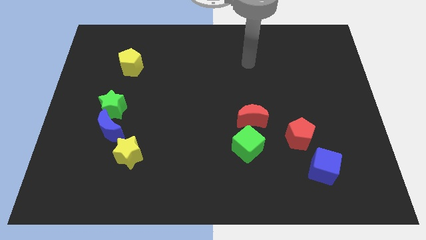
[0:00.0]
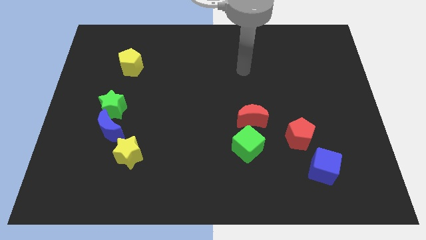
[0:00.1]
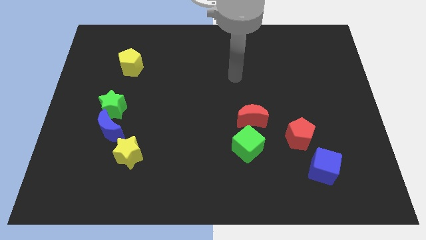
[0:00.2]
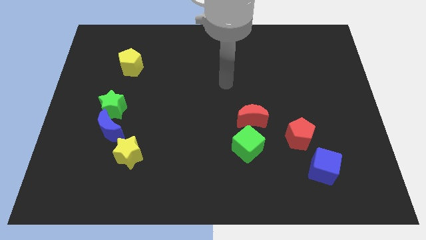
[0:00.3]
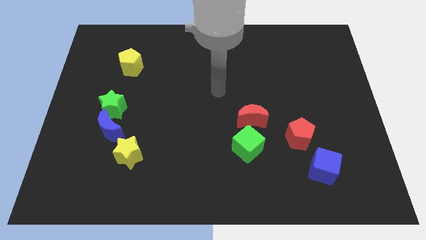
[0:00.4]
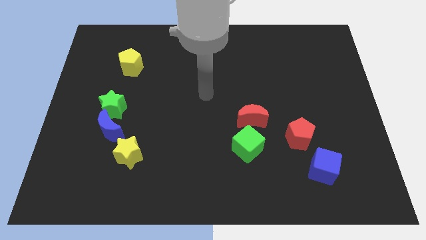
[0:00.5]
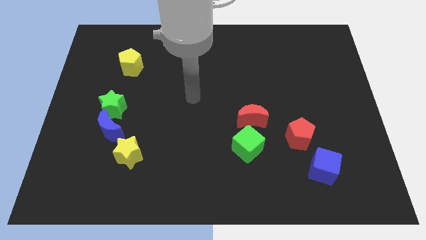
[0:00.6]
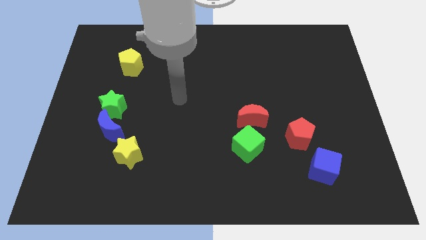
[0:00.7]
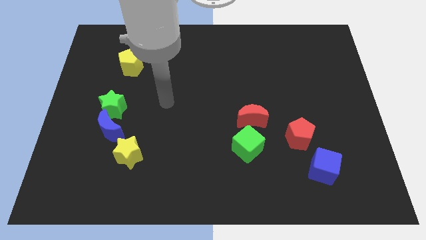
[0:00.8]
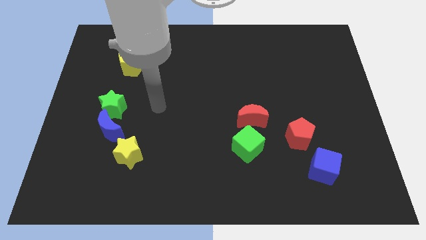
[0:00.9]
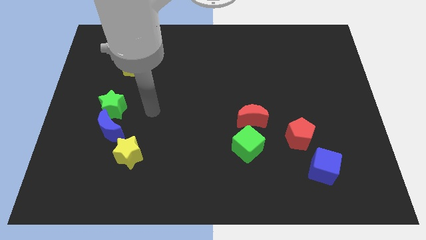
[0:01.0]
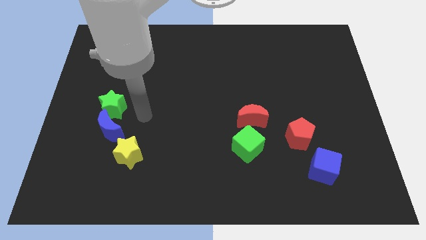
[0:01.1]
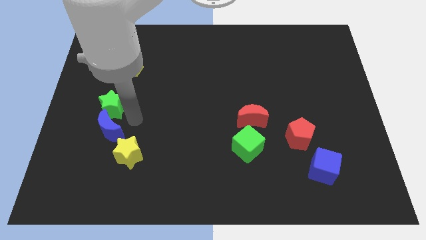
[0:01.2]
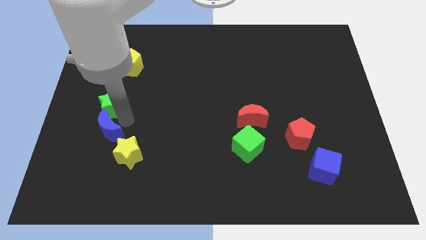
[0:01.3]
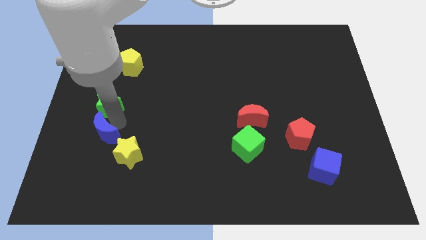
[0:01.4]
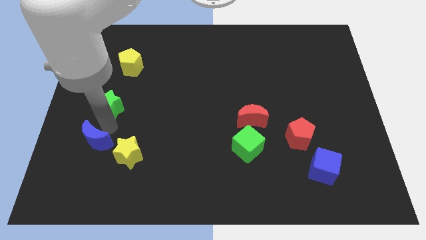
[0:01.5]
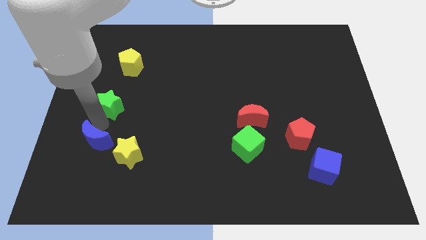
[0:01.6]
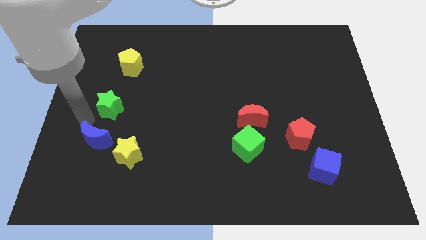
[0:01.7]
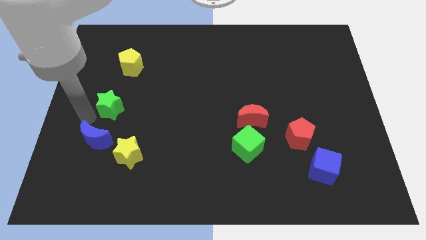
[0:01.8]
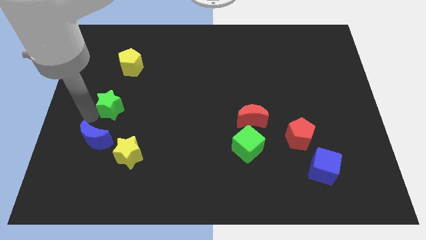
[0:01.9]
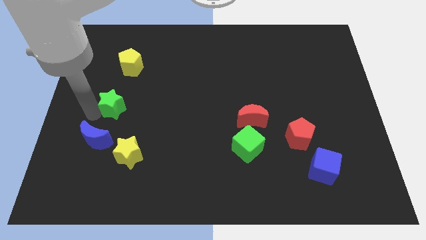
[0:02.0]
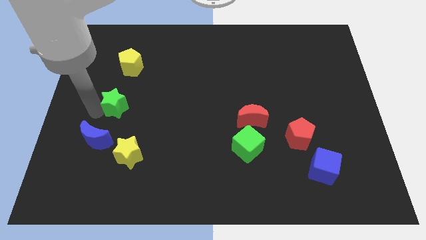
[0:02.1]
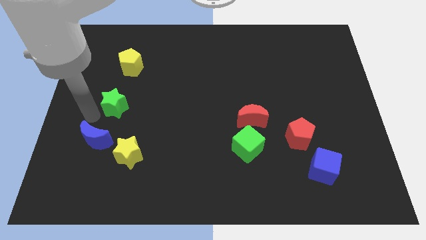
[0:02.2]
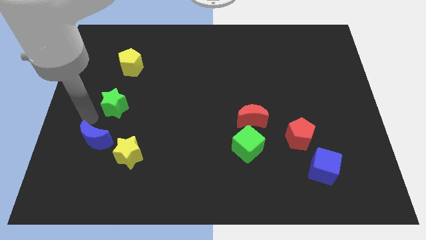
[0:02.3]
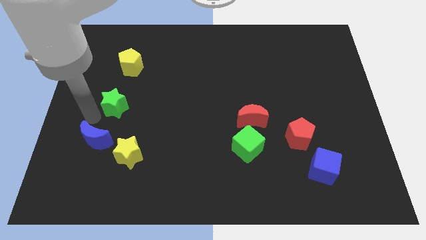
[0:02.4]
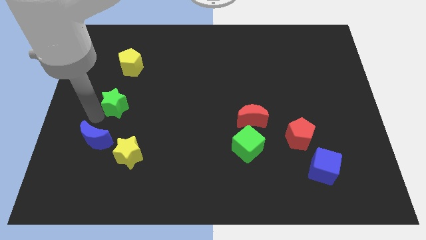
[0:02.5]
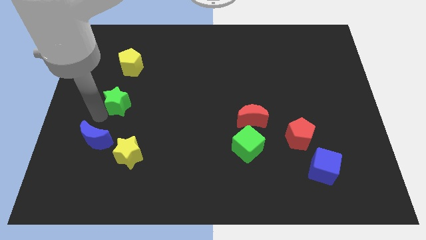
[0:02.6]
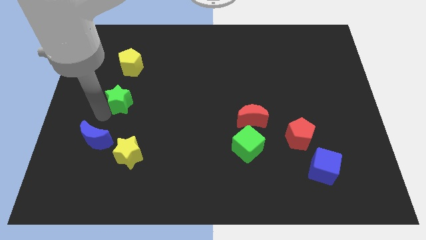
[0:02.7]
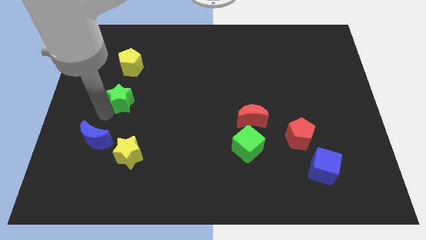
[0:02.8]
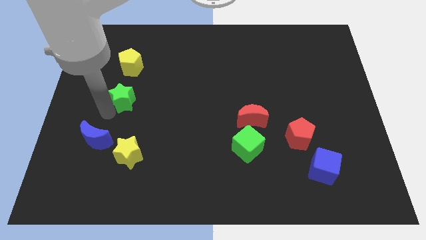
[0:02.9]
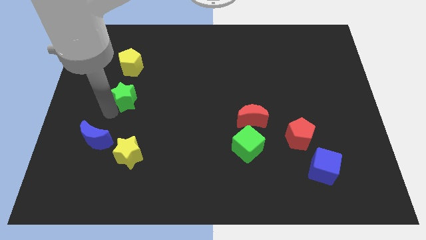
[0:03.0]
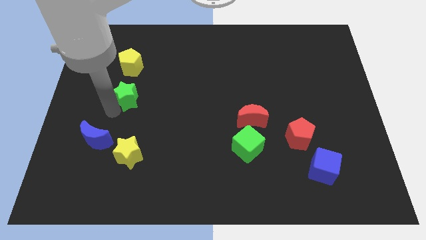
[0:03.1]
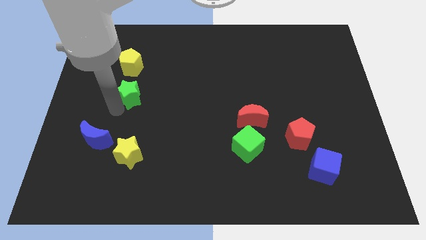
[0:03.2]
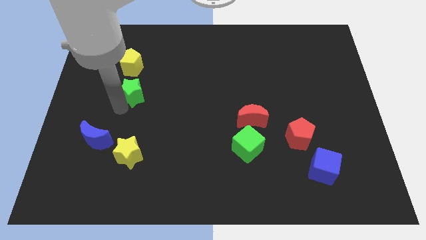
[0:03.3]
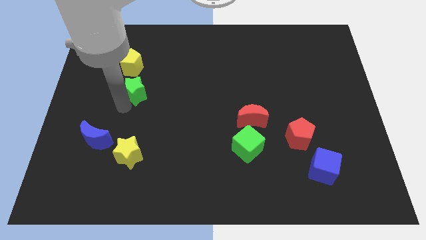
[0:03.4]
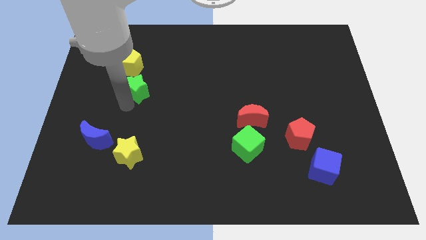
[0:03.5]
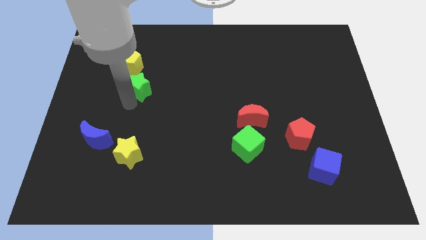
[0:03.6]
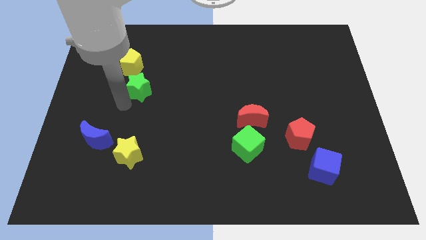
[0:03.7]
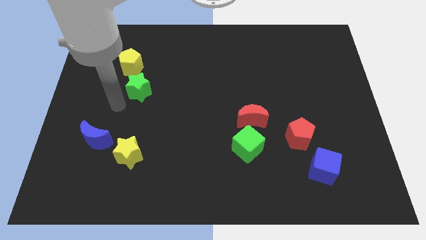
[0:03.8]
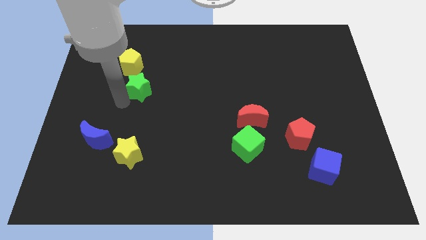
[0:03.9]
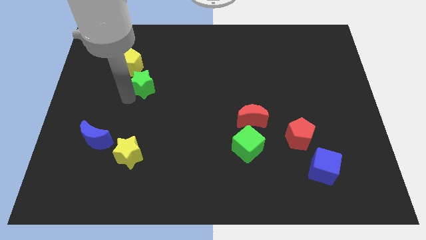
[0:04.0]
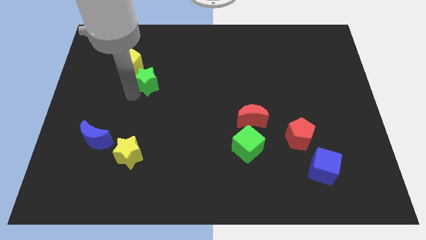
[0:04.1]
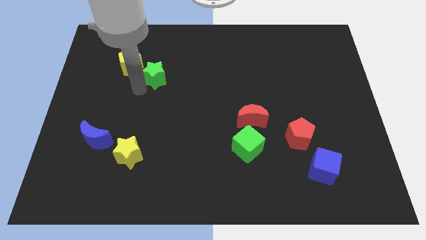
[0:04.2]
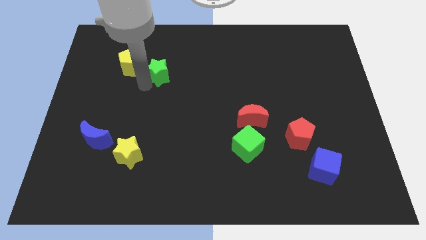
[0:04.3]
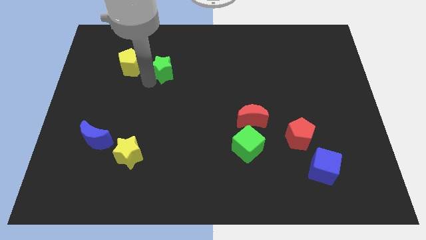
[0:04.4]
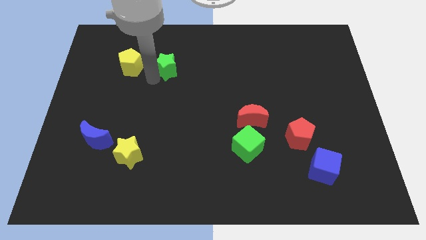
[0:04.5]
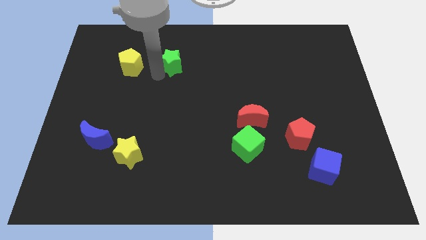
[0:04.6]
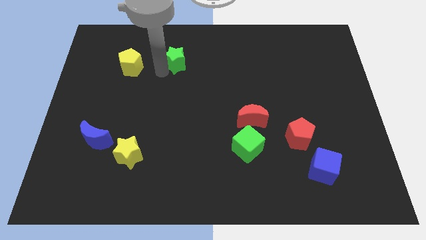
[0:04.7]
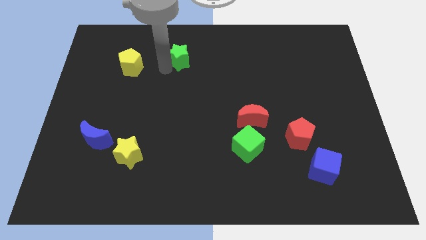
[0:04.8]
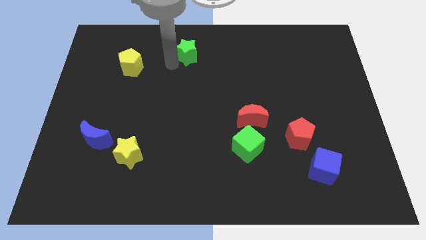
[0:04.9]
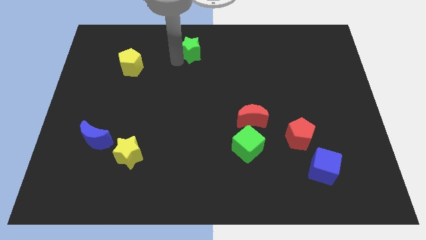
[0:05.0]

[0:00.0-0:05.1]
move the green star to the towards your base

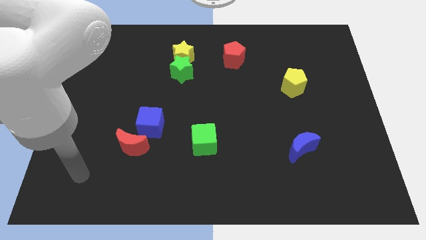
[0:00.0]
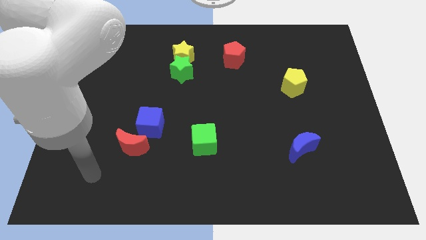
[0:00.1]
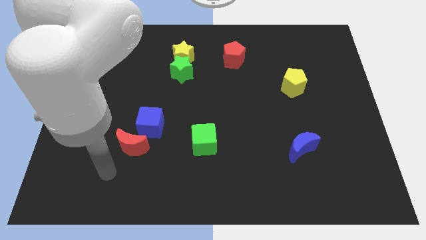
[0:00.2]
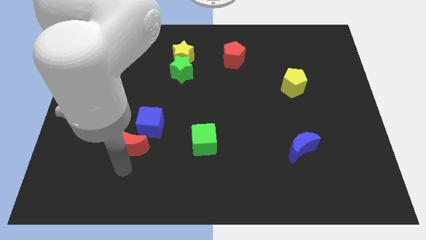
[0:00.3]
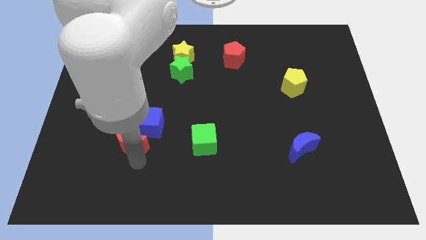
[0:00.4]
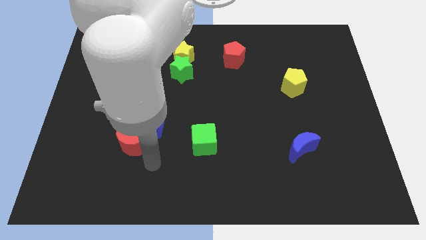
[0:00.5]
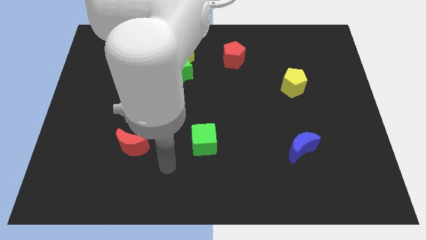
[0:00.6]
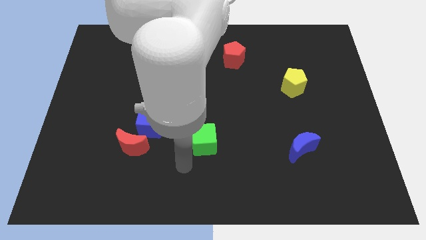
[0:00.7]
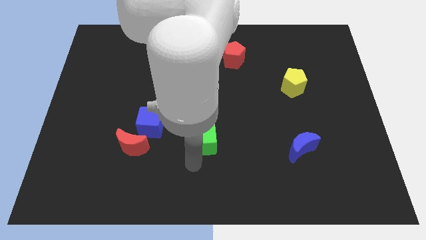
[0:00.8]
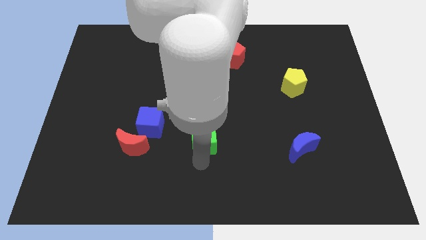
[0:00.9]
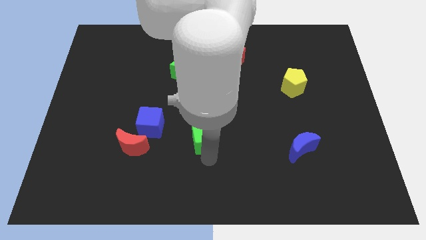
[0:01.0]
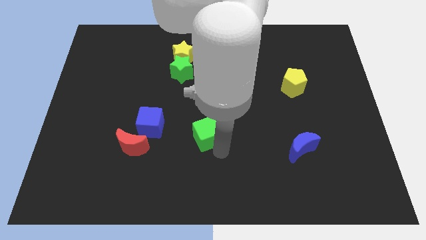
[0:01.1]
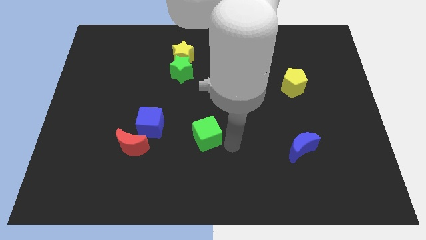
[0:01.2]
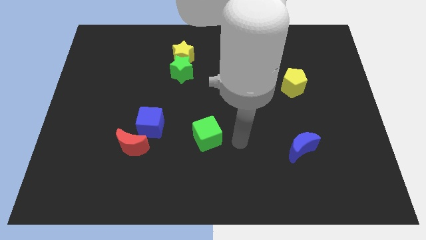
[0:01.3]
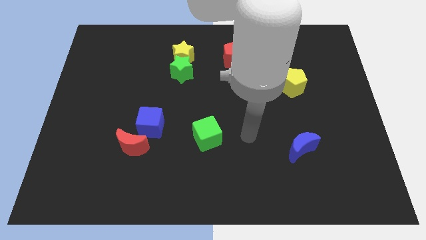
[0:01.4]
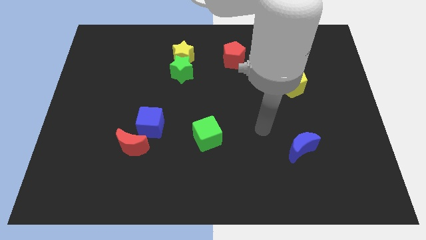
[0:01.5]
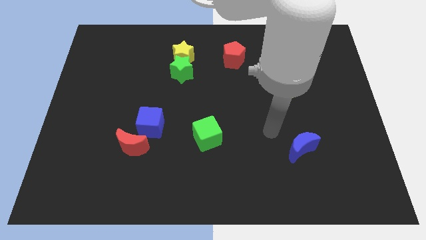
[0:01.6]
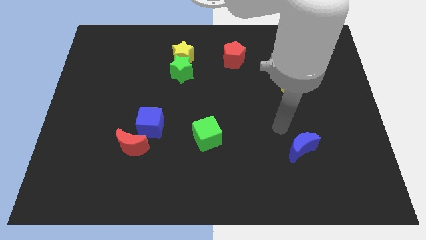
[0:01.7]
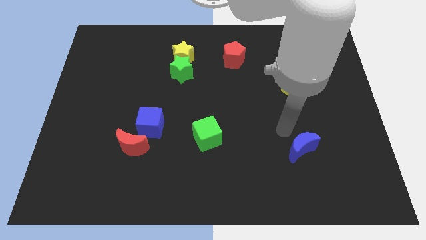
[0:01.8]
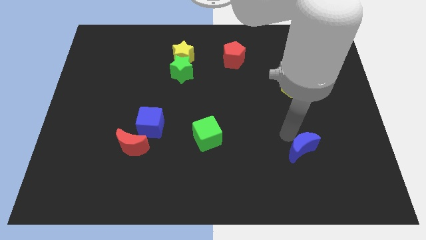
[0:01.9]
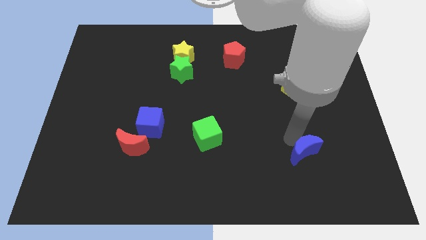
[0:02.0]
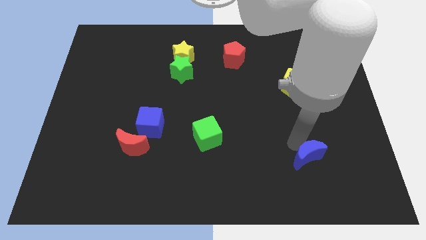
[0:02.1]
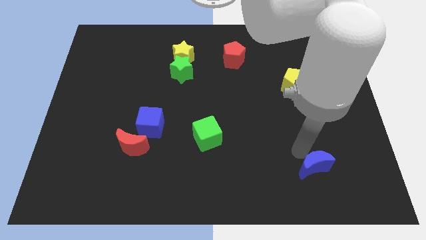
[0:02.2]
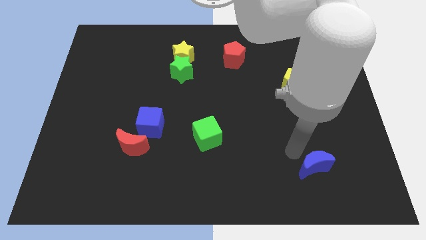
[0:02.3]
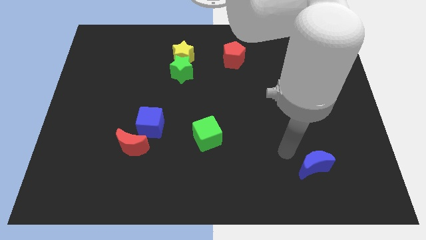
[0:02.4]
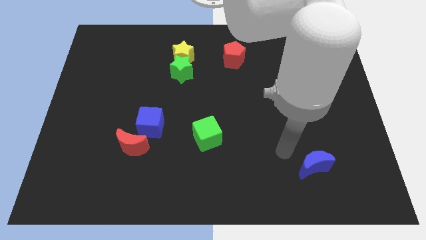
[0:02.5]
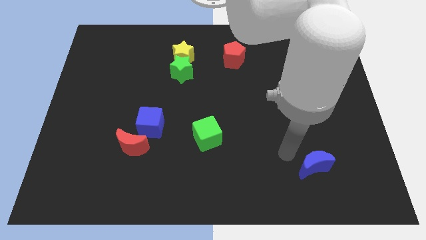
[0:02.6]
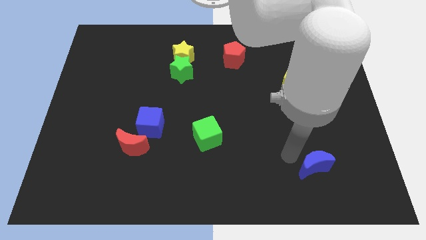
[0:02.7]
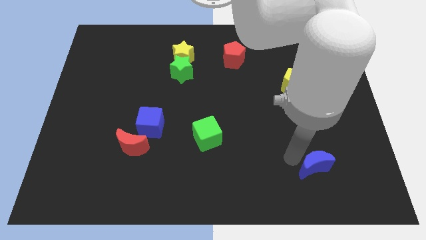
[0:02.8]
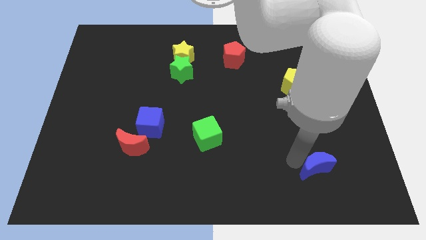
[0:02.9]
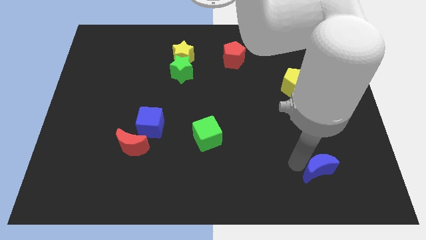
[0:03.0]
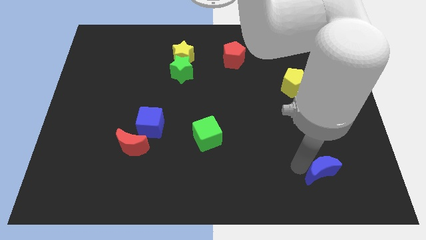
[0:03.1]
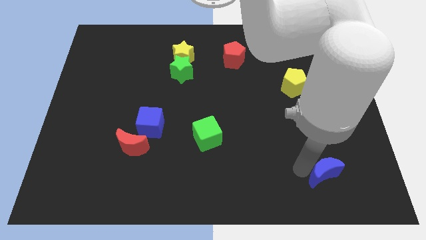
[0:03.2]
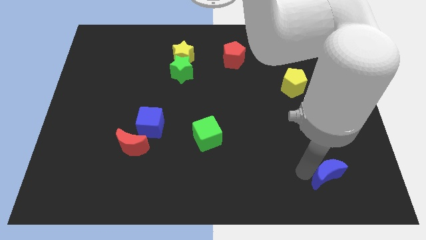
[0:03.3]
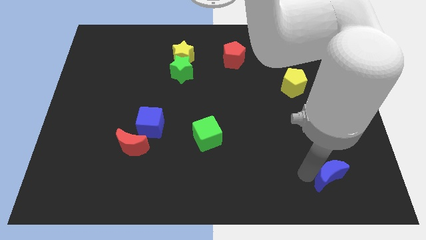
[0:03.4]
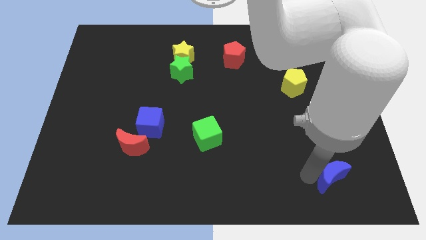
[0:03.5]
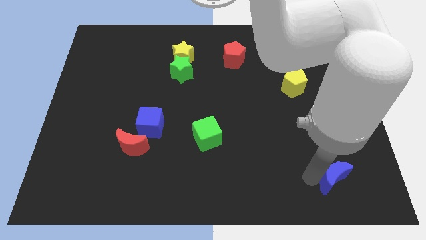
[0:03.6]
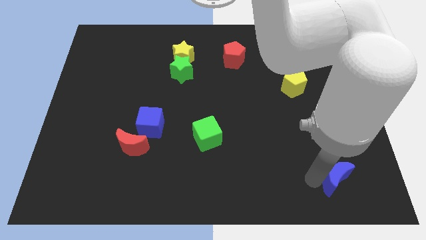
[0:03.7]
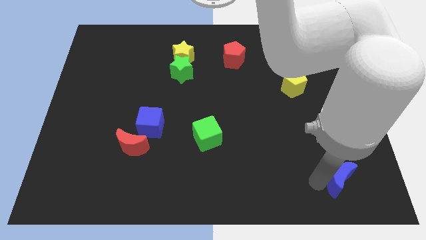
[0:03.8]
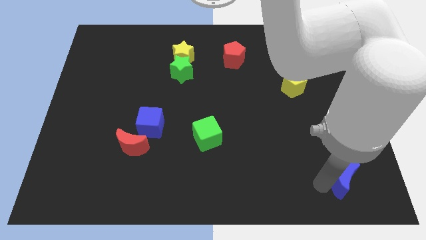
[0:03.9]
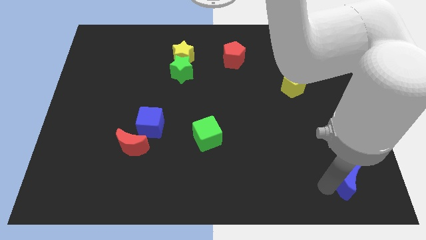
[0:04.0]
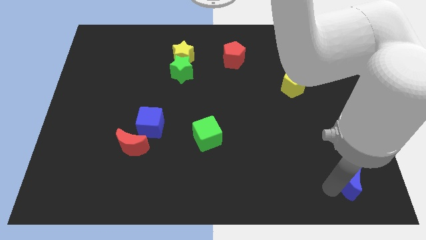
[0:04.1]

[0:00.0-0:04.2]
move the blue moon to the lower right corner
